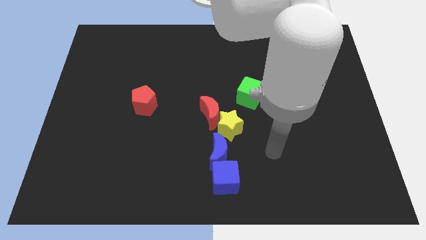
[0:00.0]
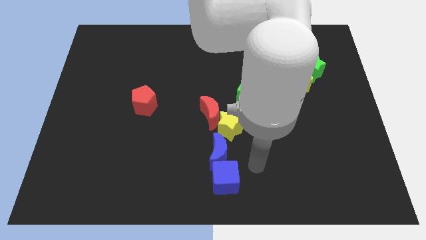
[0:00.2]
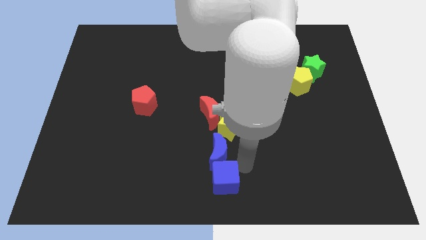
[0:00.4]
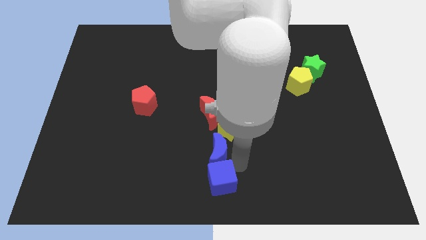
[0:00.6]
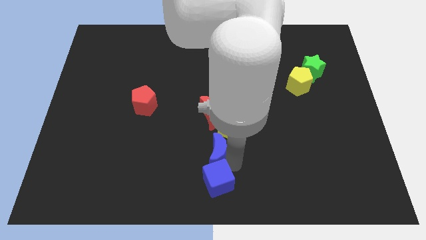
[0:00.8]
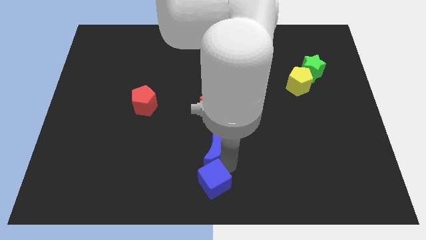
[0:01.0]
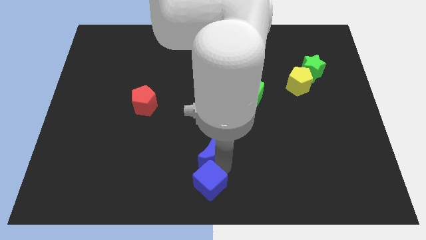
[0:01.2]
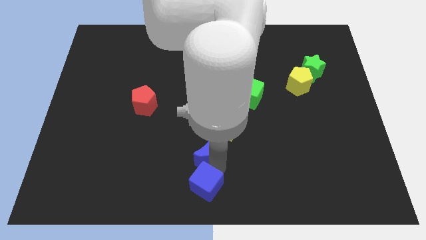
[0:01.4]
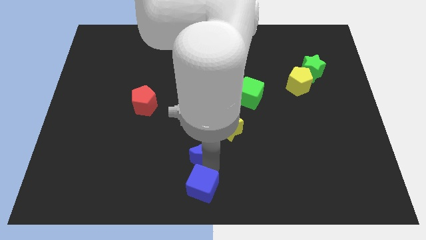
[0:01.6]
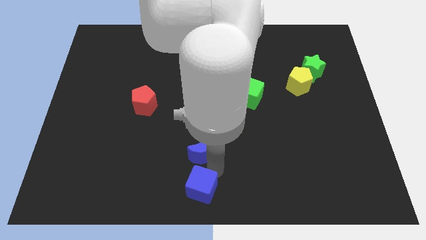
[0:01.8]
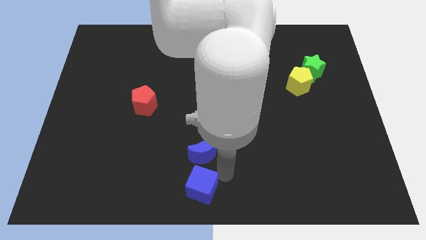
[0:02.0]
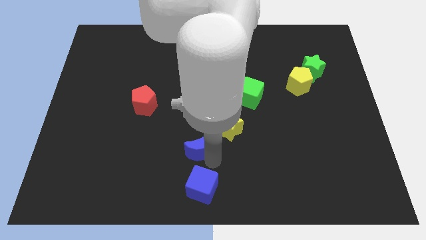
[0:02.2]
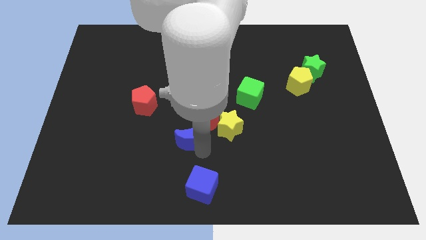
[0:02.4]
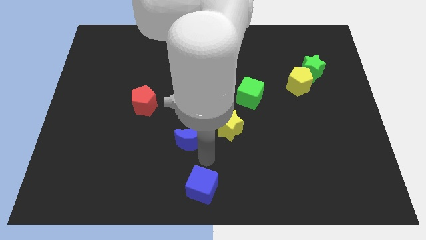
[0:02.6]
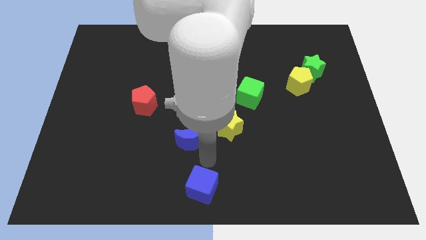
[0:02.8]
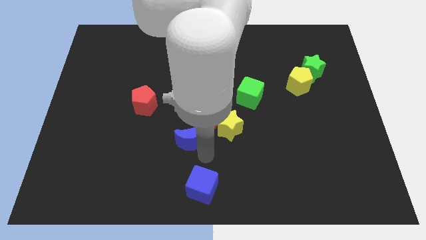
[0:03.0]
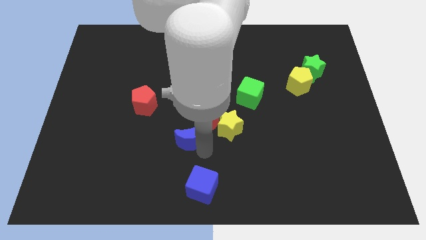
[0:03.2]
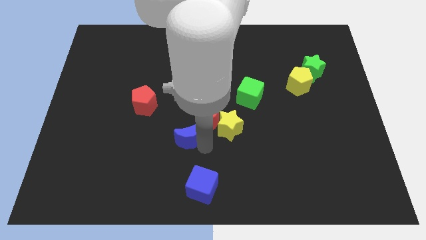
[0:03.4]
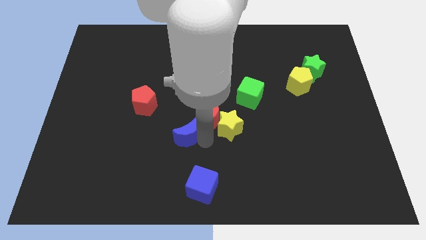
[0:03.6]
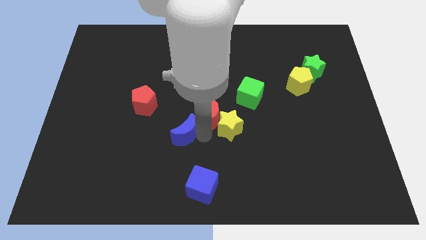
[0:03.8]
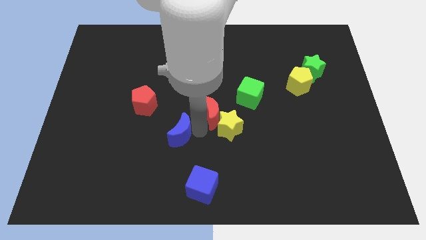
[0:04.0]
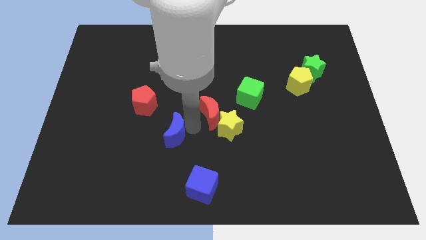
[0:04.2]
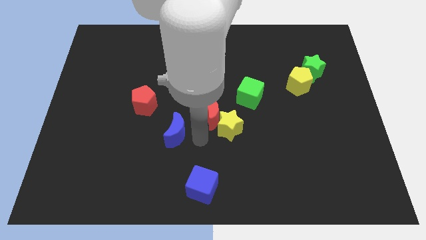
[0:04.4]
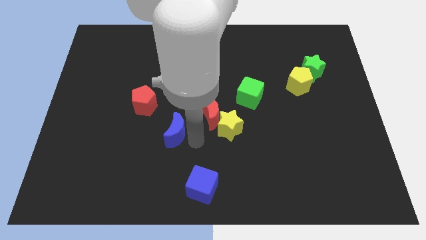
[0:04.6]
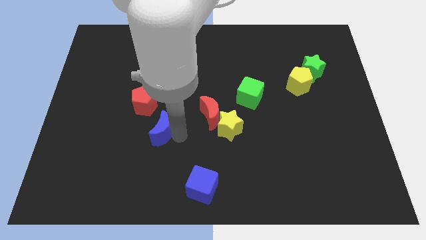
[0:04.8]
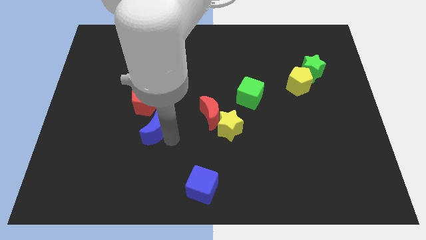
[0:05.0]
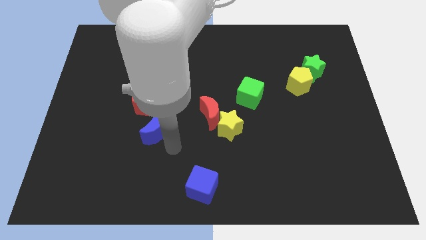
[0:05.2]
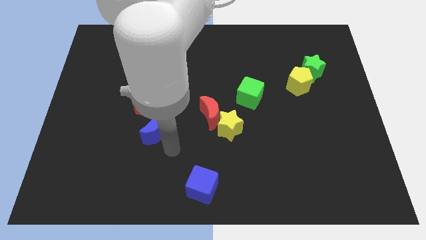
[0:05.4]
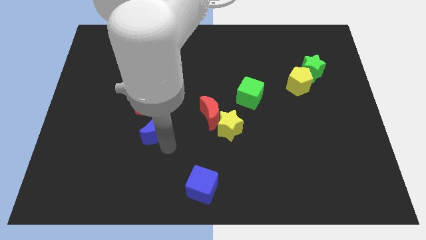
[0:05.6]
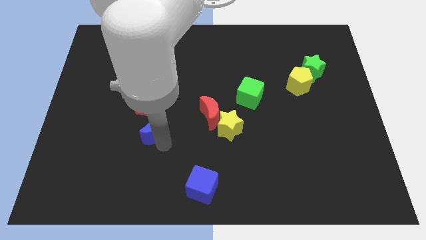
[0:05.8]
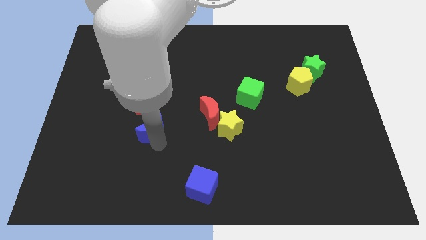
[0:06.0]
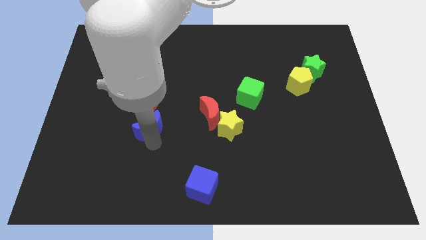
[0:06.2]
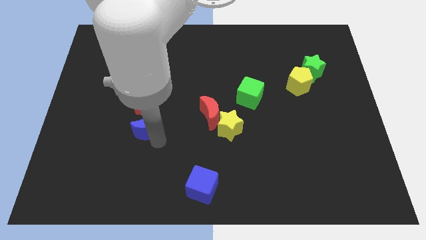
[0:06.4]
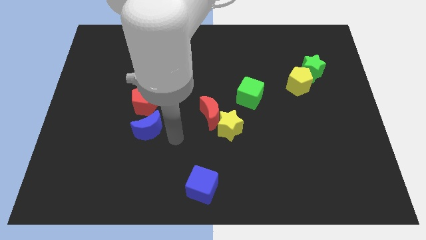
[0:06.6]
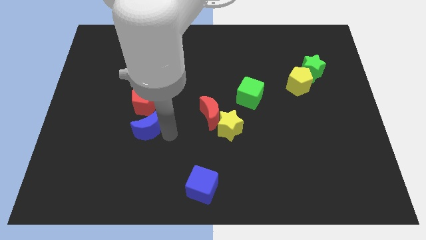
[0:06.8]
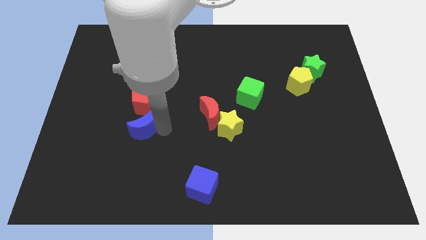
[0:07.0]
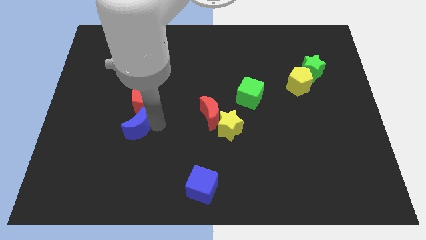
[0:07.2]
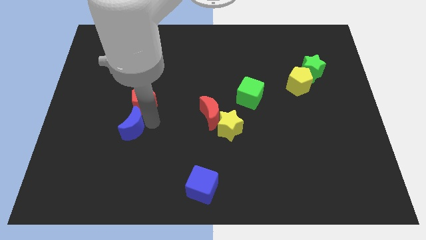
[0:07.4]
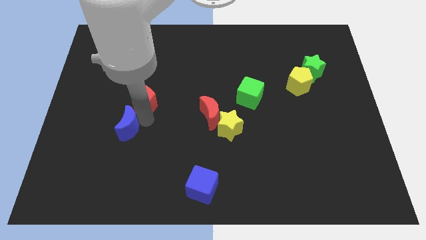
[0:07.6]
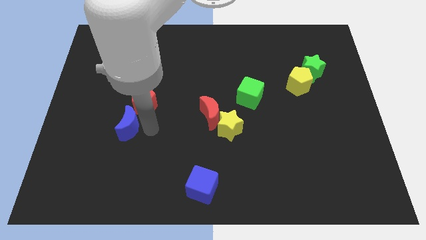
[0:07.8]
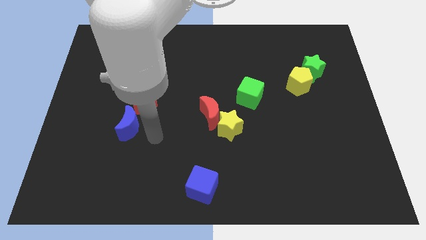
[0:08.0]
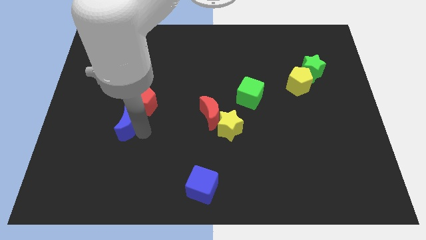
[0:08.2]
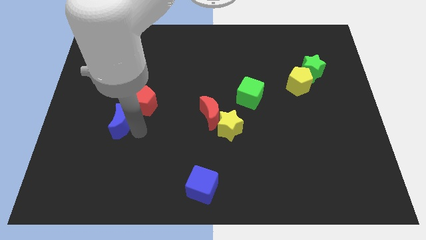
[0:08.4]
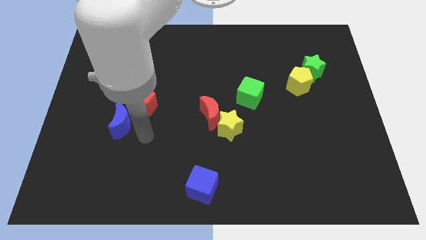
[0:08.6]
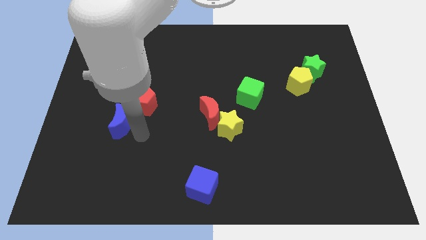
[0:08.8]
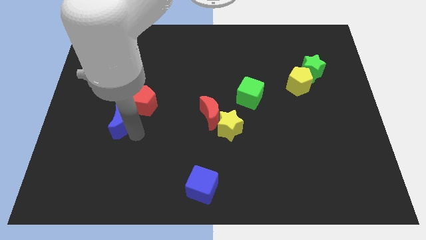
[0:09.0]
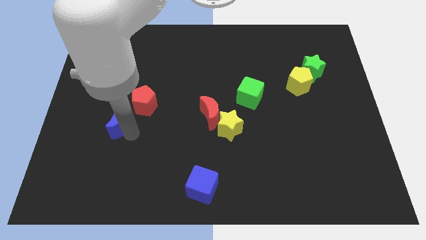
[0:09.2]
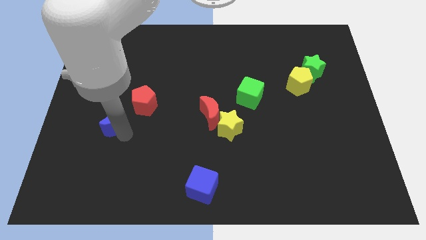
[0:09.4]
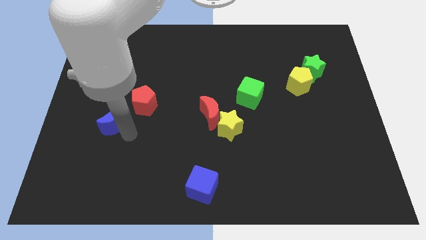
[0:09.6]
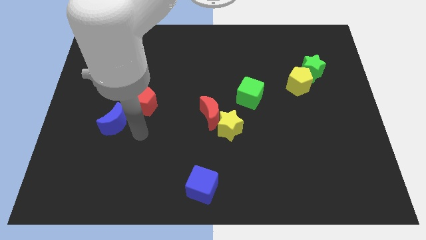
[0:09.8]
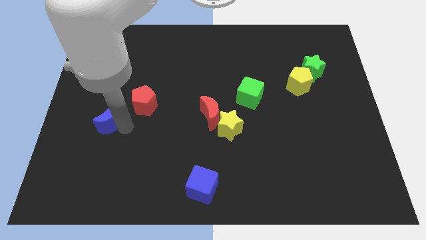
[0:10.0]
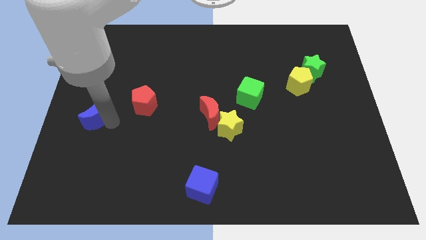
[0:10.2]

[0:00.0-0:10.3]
move the blue moon to the left side

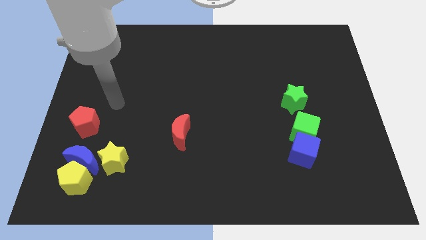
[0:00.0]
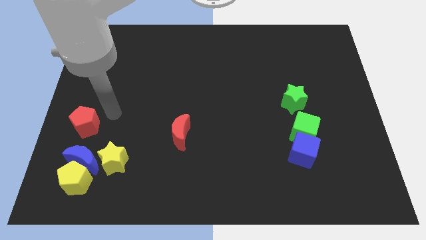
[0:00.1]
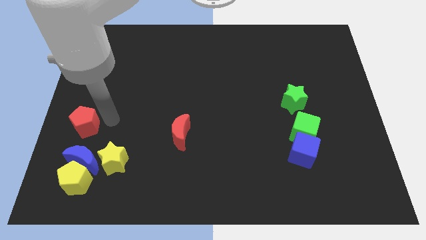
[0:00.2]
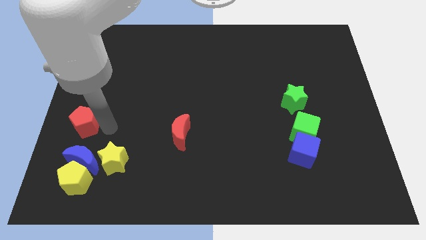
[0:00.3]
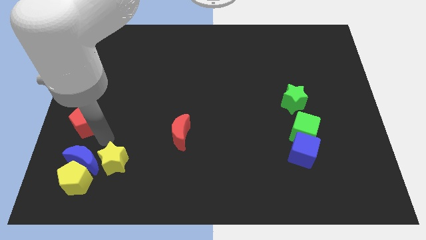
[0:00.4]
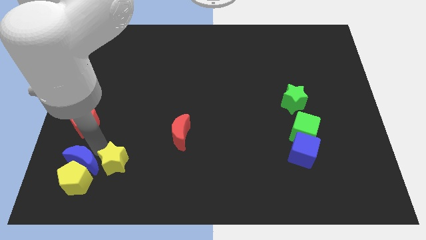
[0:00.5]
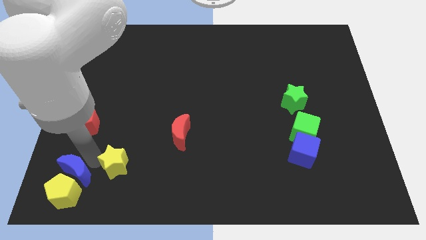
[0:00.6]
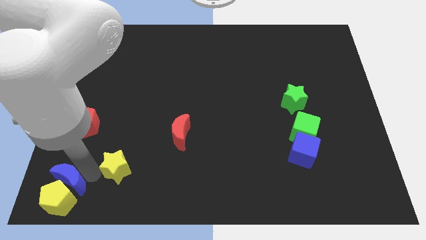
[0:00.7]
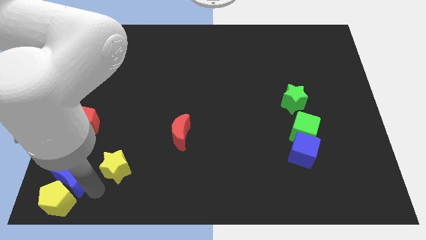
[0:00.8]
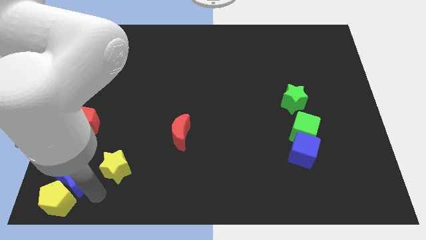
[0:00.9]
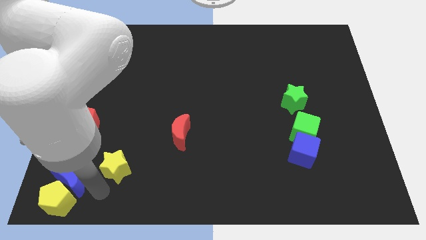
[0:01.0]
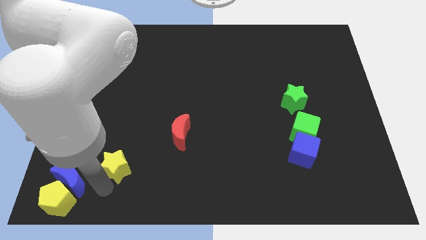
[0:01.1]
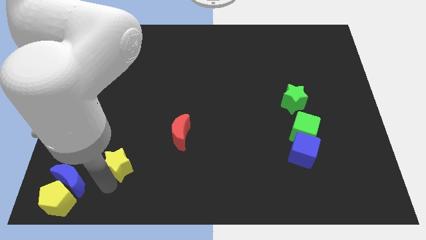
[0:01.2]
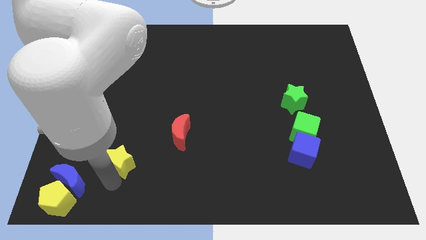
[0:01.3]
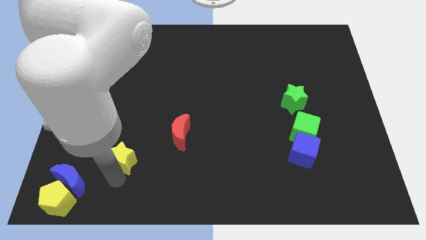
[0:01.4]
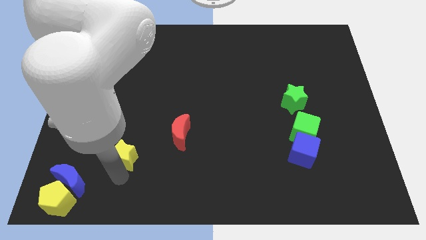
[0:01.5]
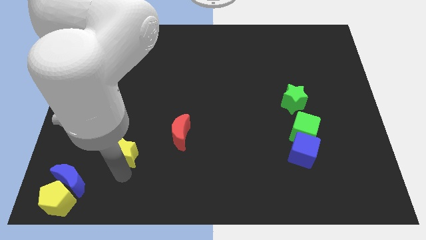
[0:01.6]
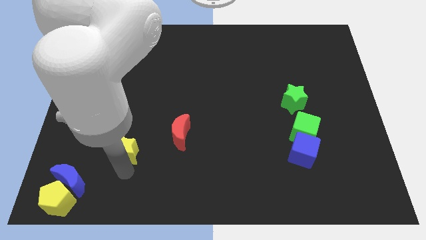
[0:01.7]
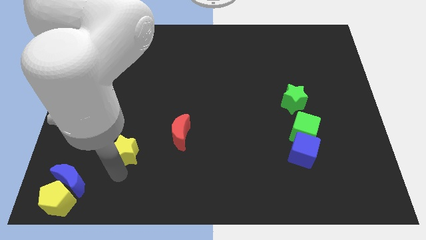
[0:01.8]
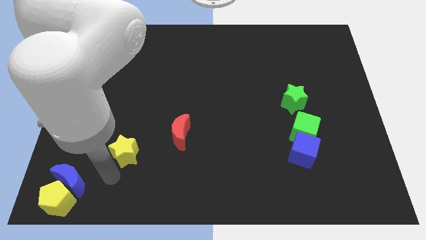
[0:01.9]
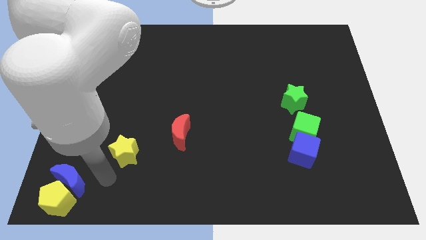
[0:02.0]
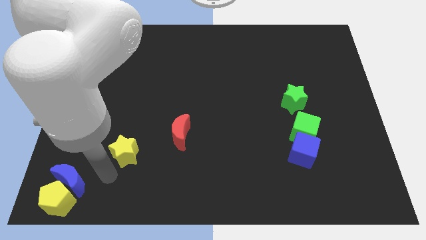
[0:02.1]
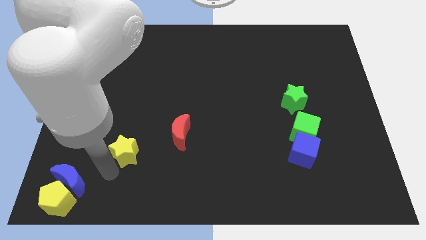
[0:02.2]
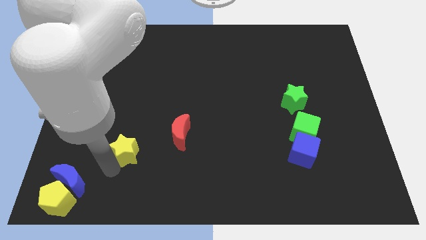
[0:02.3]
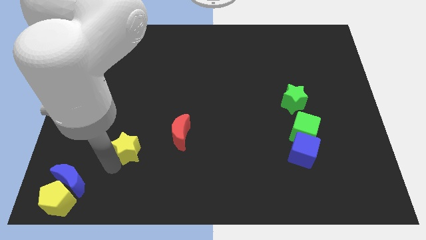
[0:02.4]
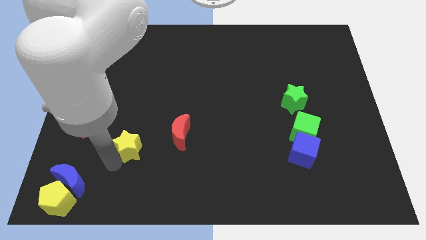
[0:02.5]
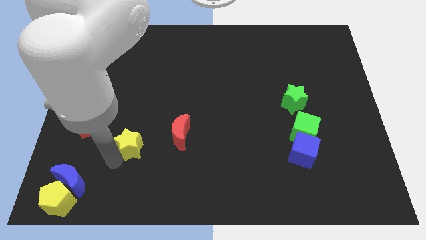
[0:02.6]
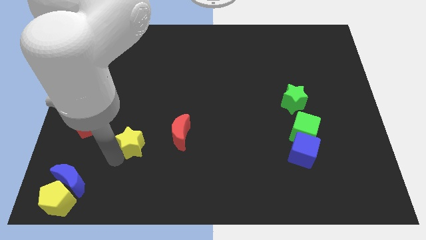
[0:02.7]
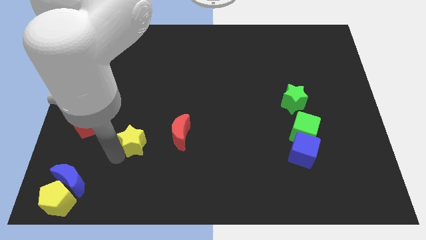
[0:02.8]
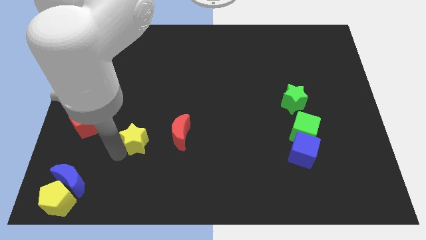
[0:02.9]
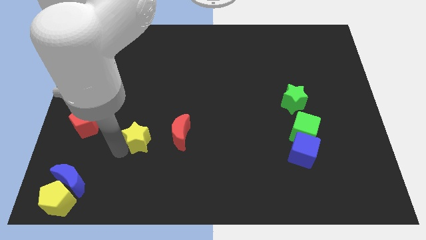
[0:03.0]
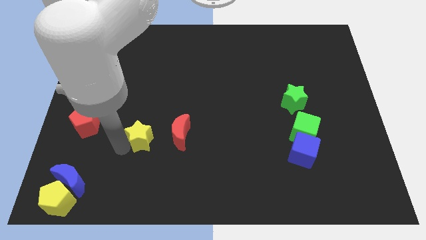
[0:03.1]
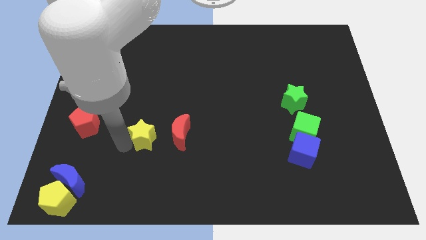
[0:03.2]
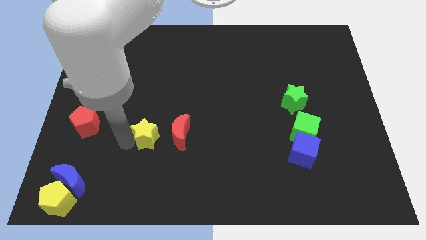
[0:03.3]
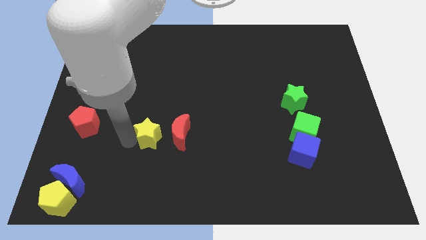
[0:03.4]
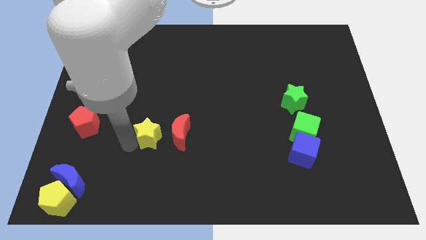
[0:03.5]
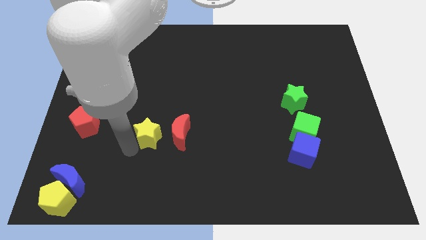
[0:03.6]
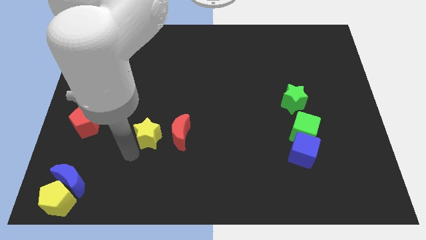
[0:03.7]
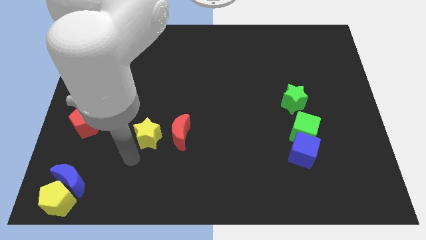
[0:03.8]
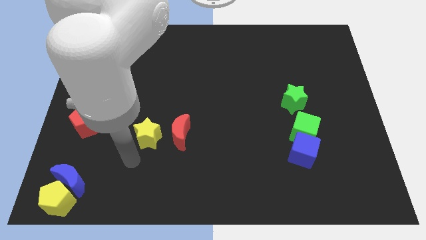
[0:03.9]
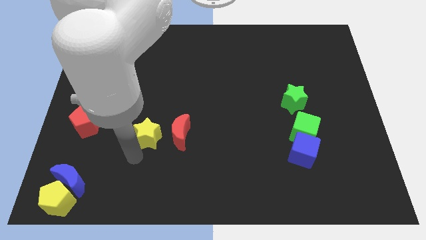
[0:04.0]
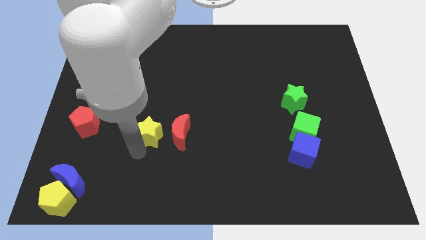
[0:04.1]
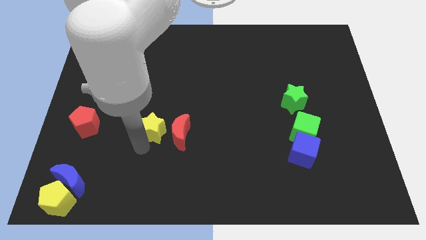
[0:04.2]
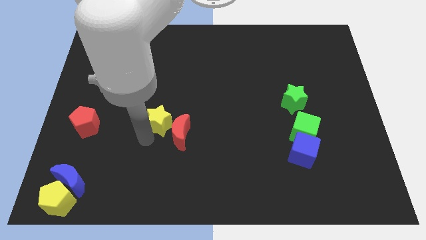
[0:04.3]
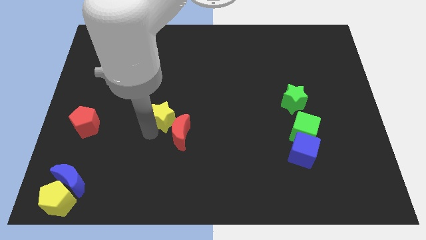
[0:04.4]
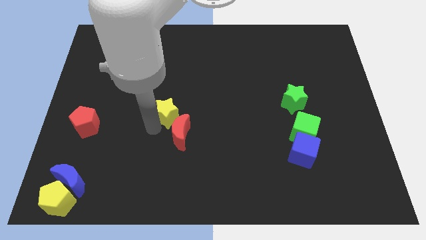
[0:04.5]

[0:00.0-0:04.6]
put the yellow star to the middle of the board
